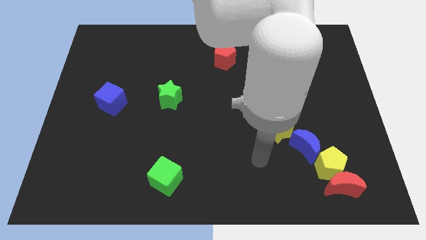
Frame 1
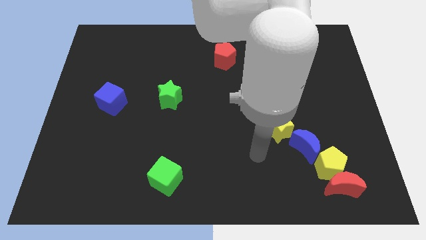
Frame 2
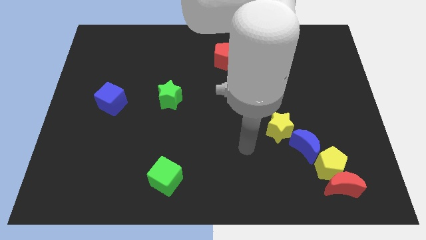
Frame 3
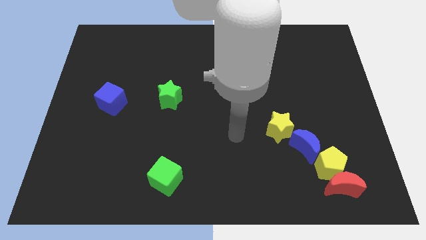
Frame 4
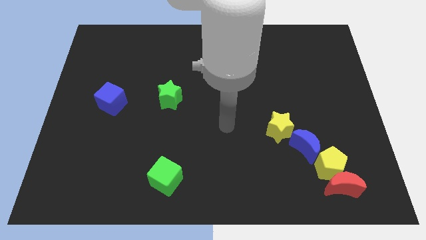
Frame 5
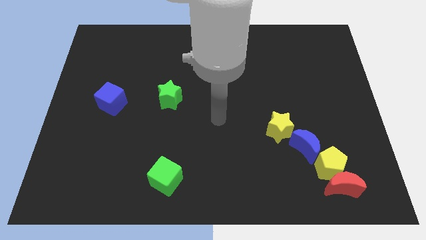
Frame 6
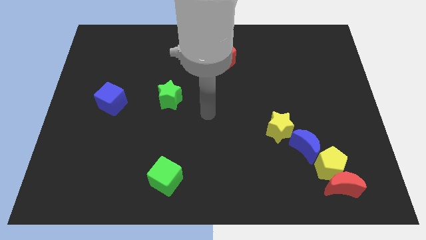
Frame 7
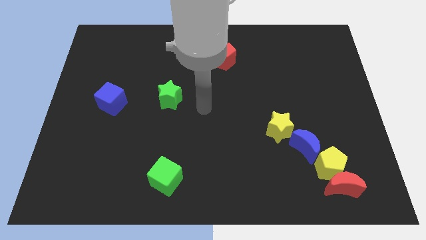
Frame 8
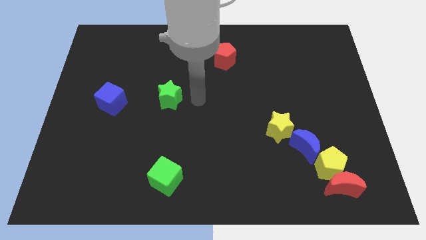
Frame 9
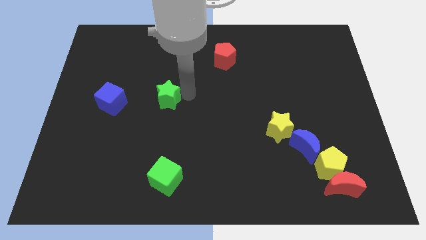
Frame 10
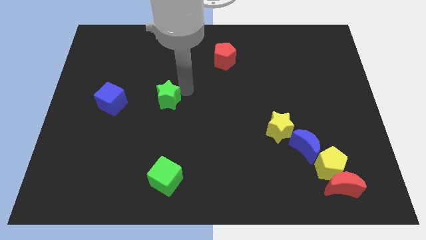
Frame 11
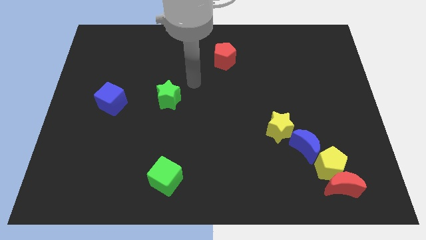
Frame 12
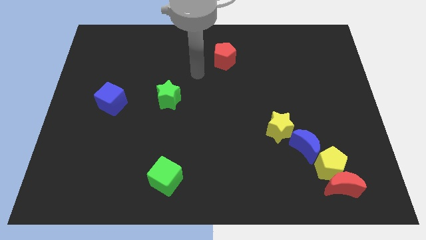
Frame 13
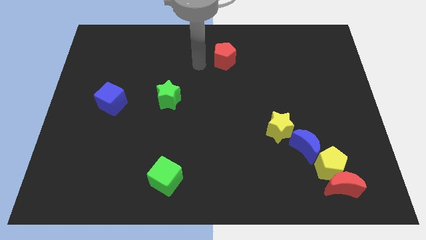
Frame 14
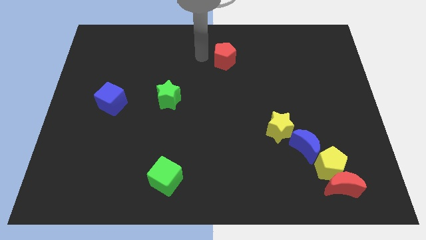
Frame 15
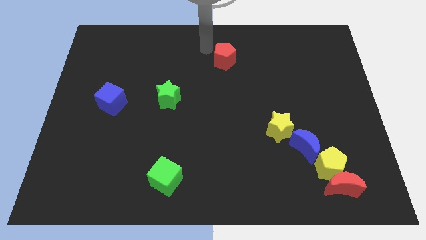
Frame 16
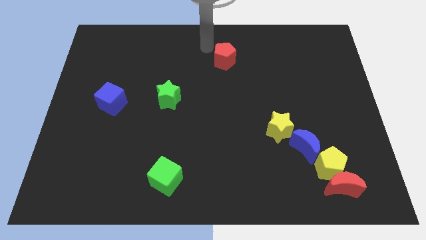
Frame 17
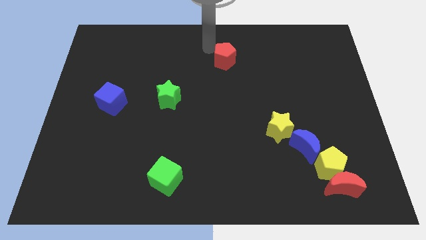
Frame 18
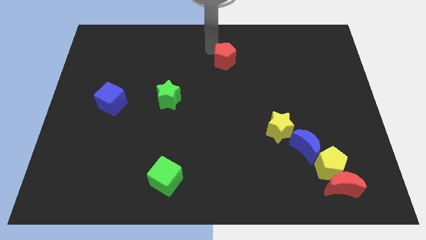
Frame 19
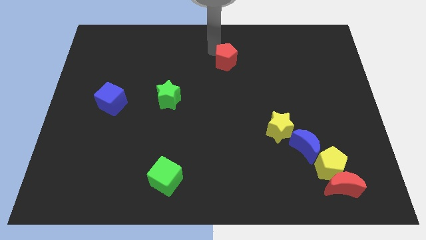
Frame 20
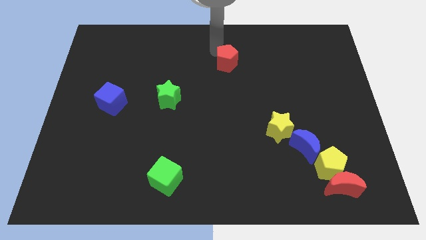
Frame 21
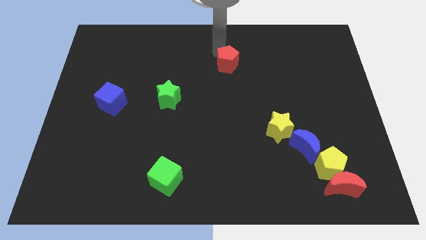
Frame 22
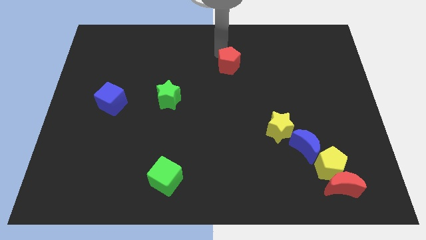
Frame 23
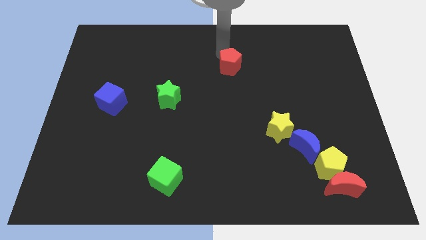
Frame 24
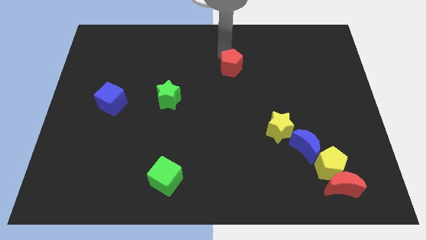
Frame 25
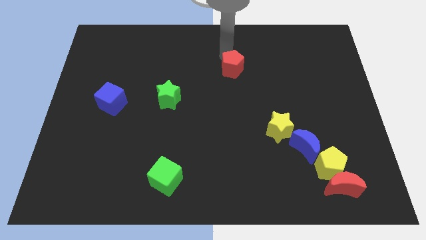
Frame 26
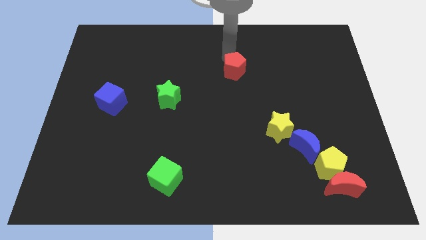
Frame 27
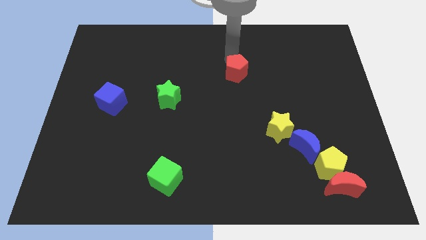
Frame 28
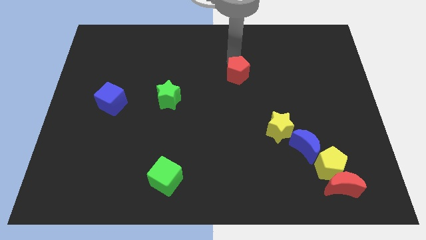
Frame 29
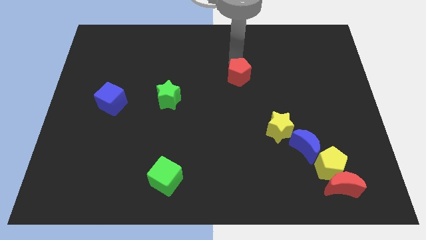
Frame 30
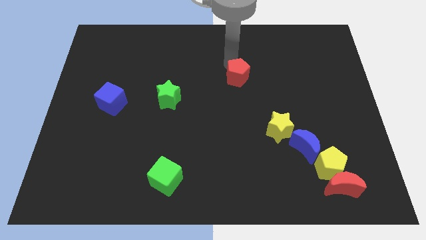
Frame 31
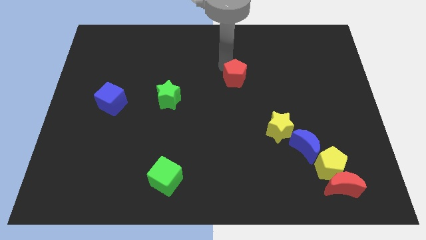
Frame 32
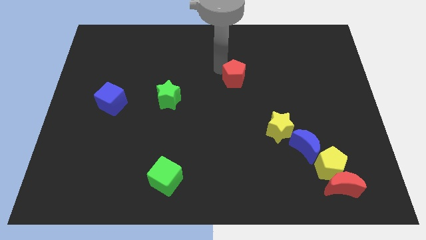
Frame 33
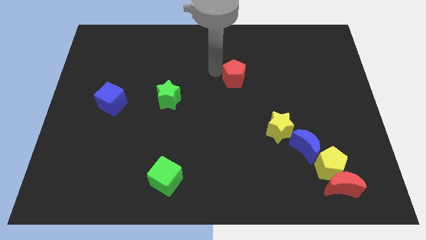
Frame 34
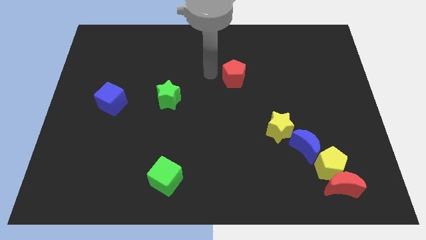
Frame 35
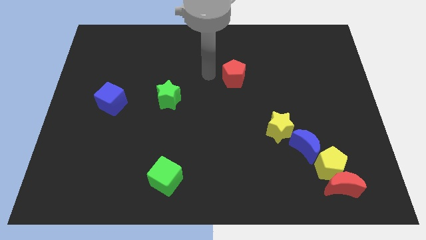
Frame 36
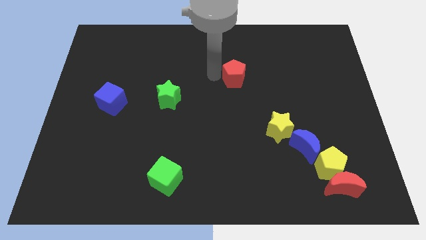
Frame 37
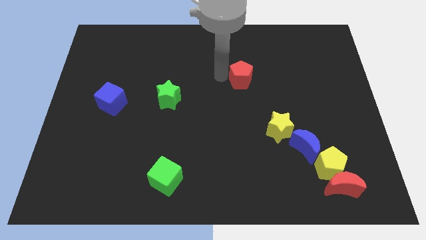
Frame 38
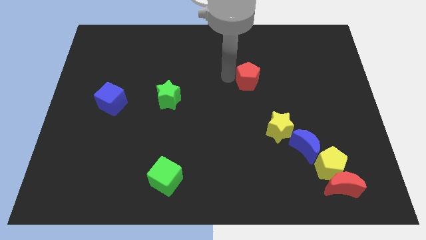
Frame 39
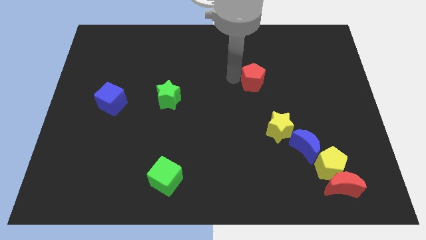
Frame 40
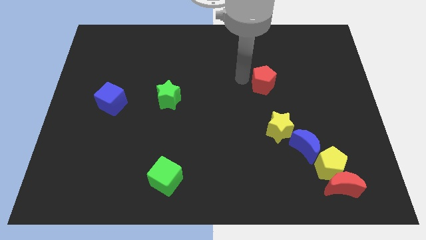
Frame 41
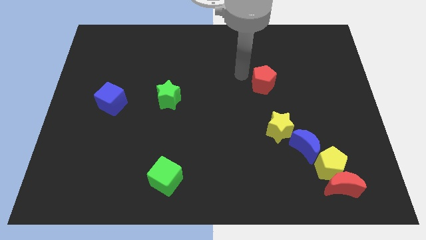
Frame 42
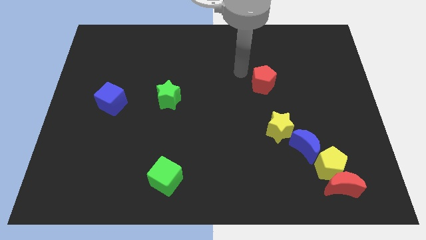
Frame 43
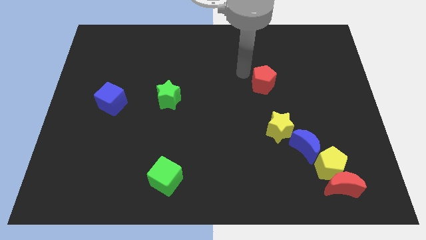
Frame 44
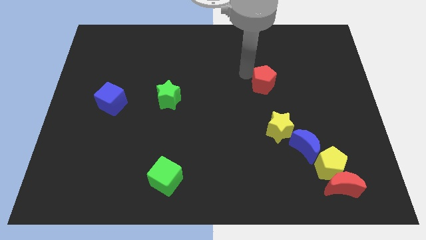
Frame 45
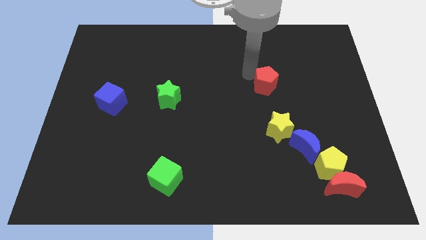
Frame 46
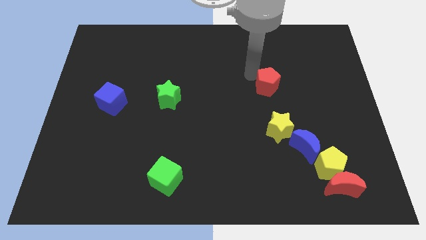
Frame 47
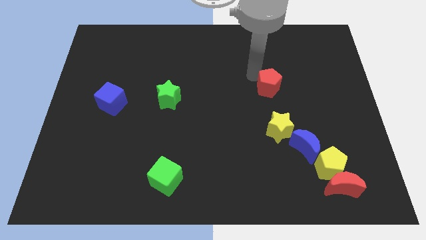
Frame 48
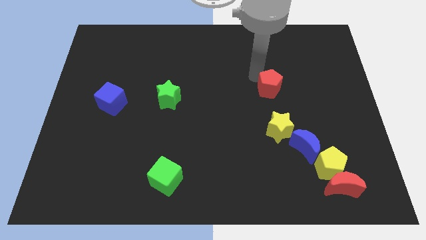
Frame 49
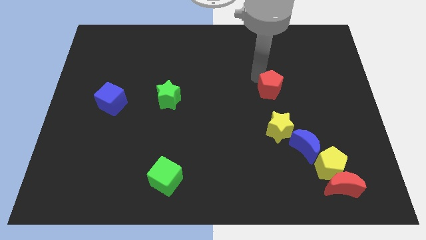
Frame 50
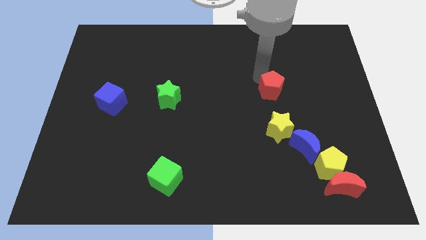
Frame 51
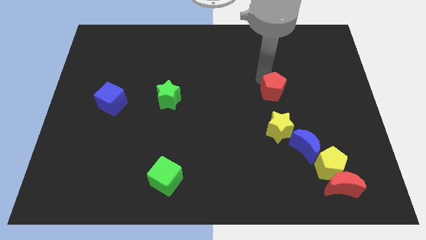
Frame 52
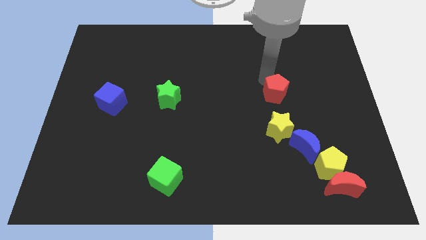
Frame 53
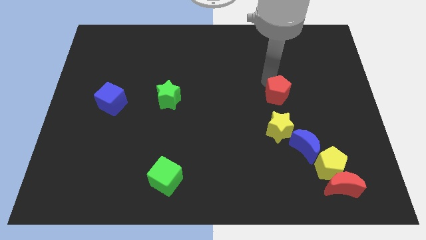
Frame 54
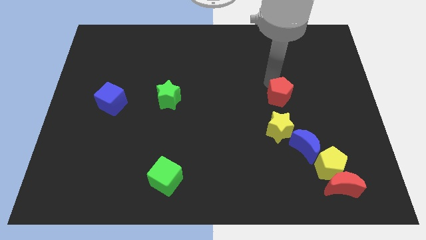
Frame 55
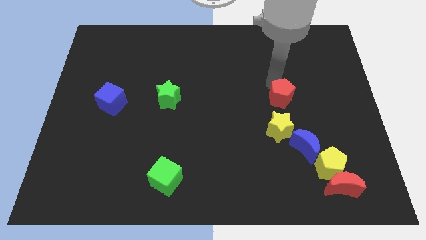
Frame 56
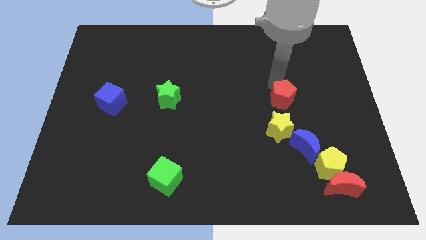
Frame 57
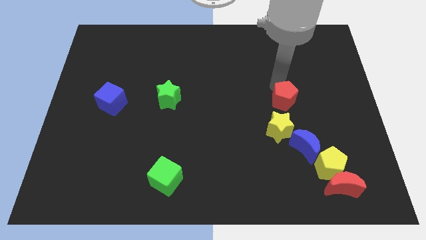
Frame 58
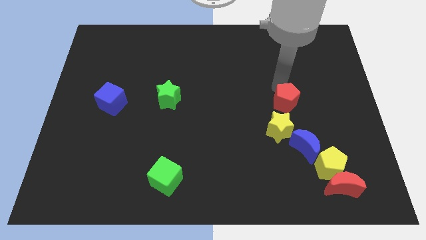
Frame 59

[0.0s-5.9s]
move the red pentagon down and right diagonally

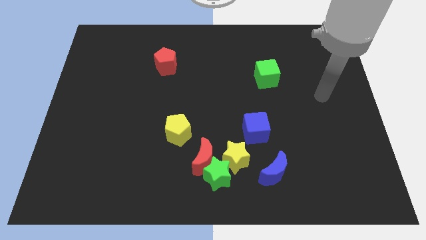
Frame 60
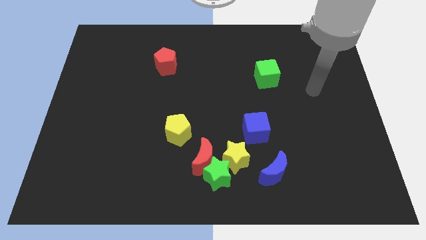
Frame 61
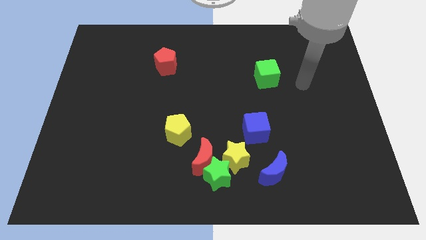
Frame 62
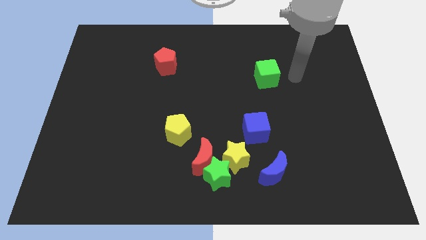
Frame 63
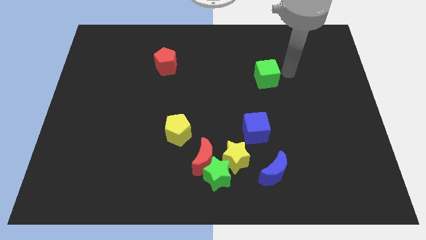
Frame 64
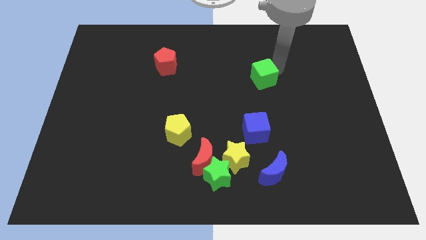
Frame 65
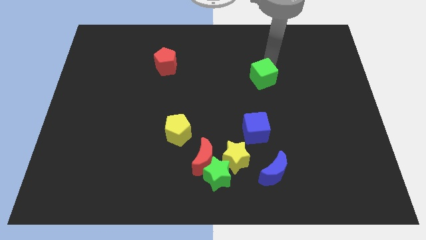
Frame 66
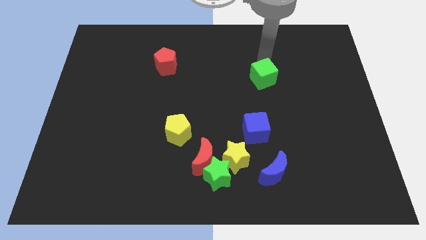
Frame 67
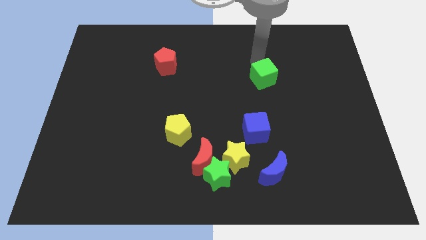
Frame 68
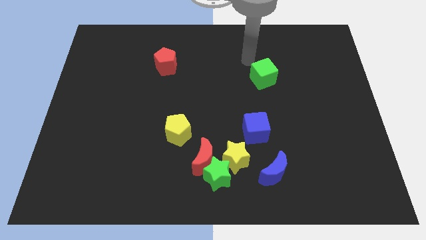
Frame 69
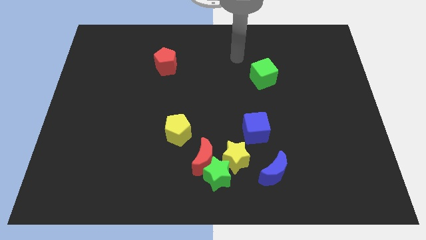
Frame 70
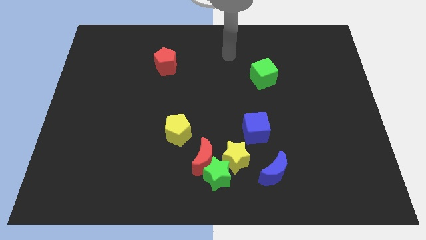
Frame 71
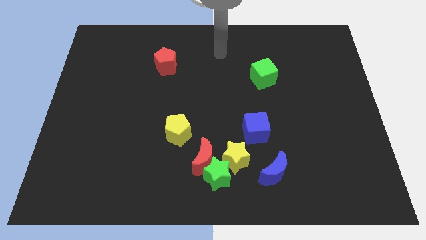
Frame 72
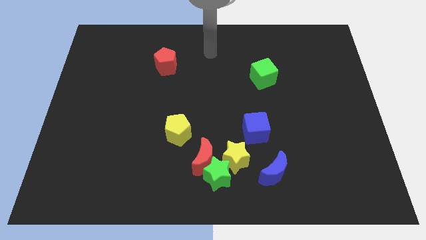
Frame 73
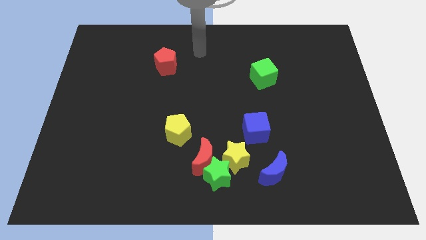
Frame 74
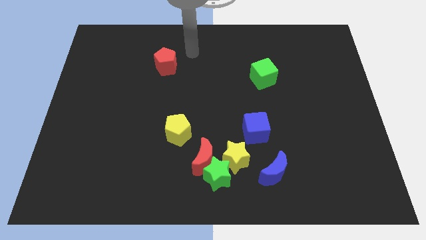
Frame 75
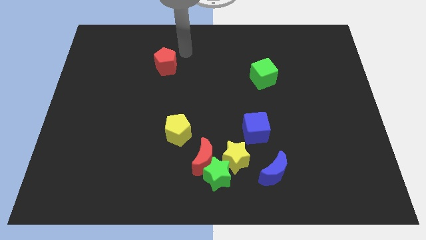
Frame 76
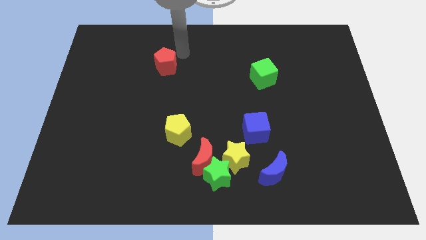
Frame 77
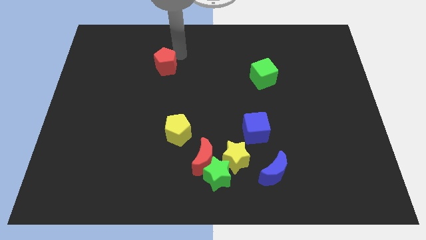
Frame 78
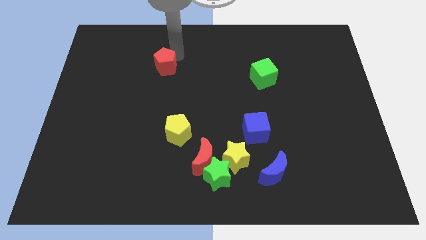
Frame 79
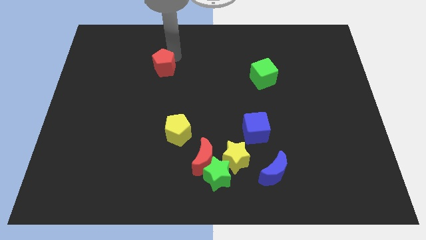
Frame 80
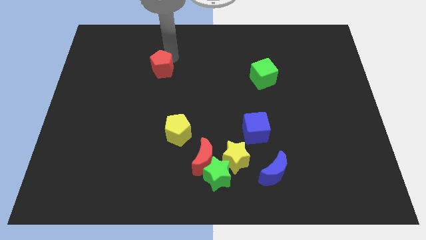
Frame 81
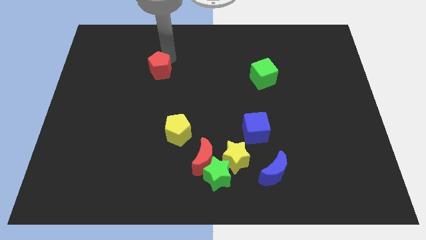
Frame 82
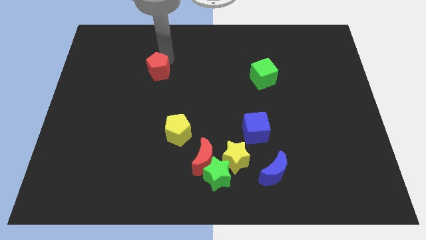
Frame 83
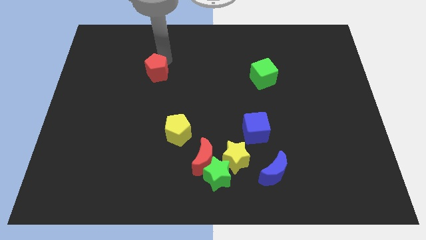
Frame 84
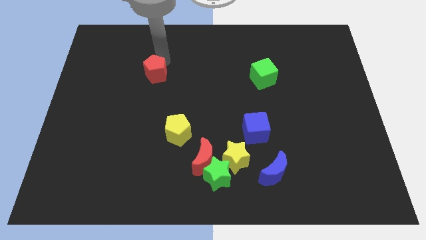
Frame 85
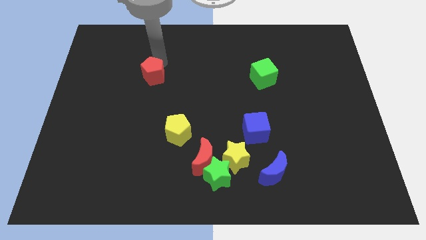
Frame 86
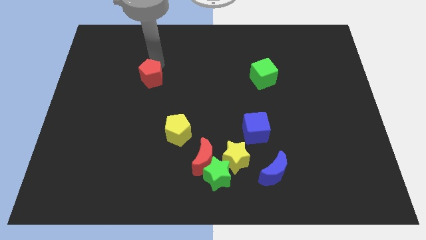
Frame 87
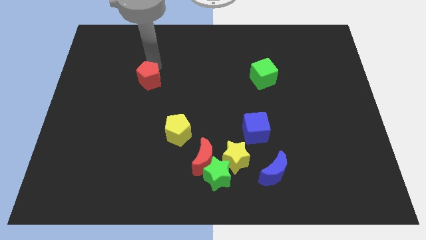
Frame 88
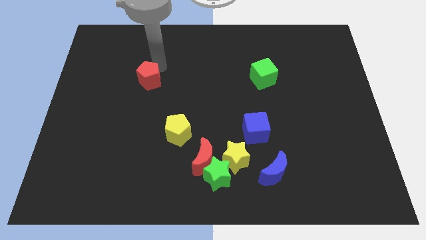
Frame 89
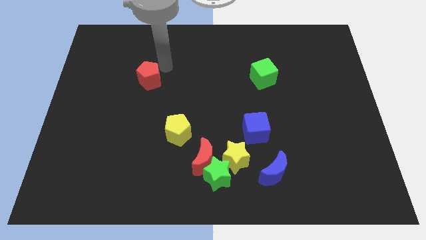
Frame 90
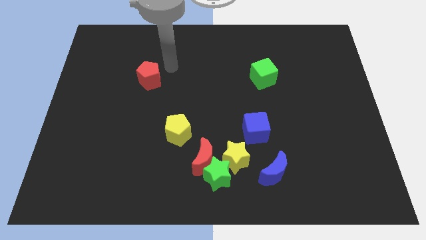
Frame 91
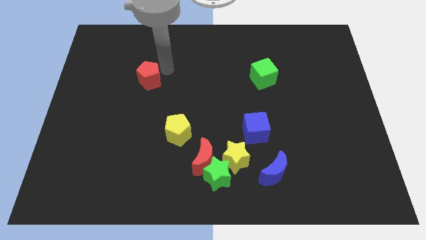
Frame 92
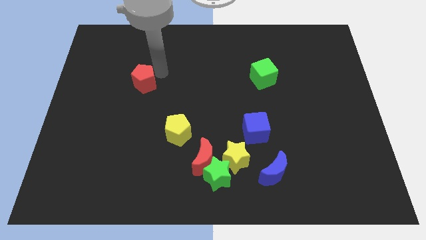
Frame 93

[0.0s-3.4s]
slightly push the red pentagon diagonally downwards and left
